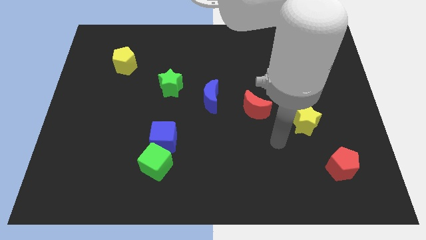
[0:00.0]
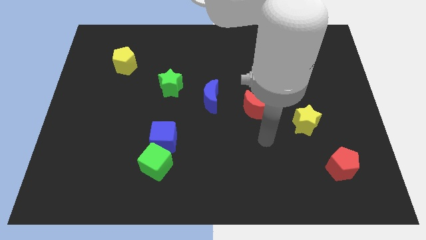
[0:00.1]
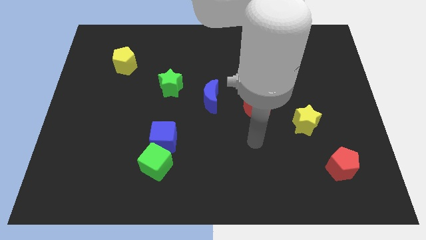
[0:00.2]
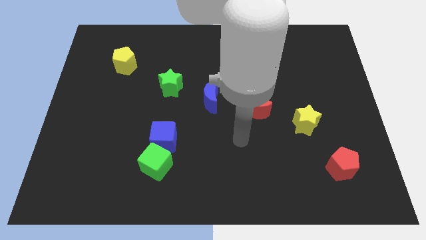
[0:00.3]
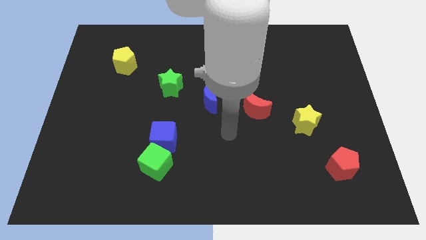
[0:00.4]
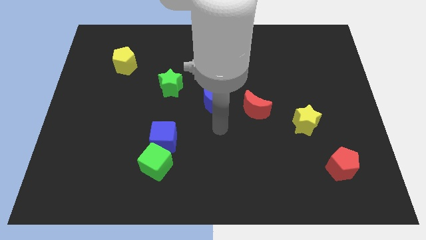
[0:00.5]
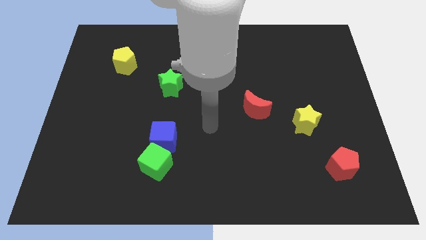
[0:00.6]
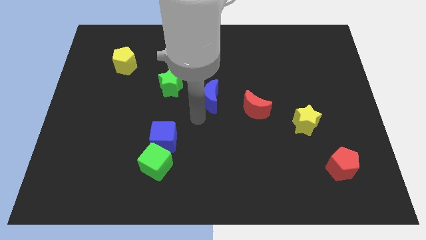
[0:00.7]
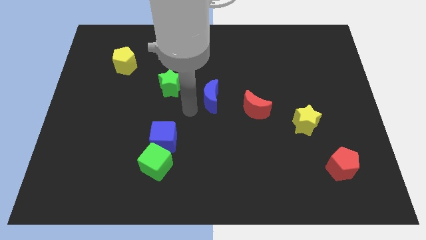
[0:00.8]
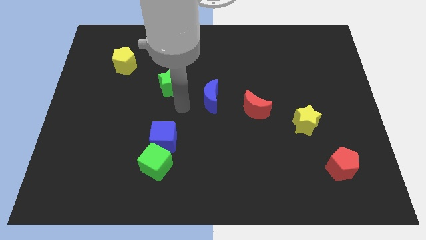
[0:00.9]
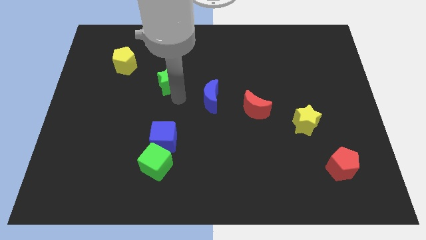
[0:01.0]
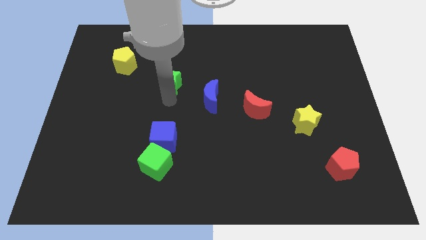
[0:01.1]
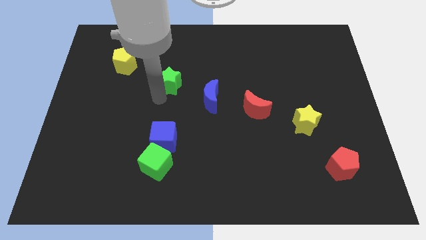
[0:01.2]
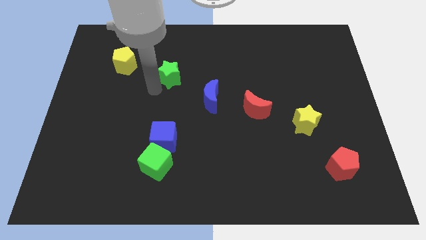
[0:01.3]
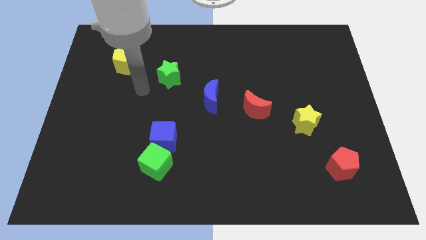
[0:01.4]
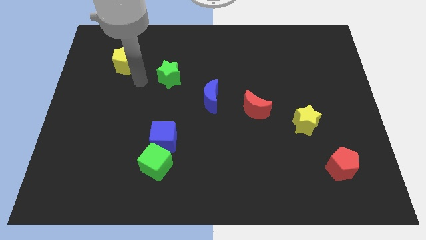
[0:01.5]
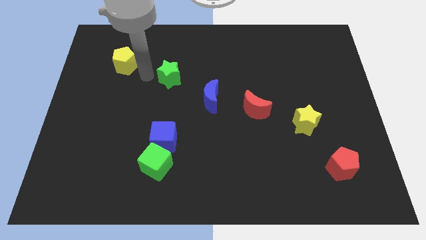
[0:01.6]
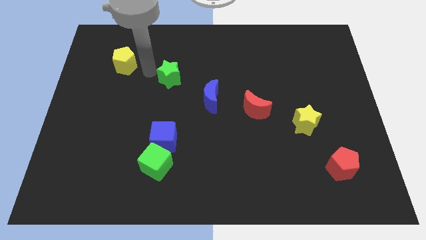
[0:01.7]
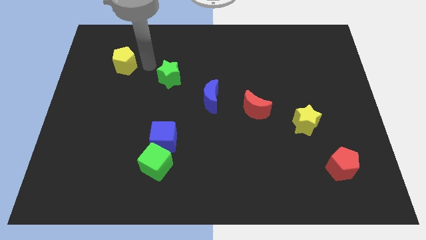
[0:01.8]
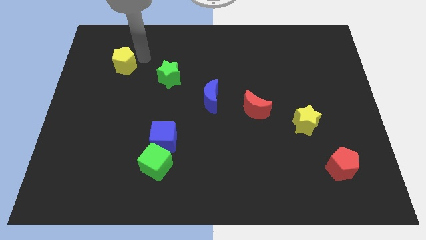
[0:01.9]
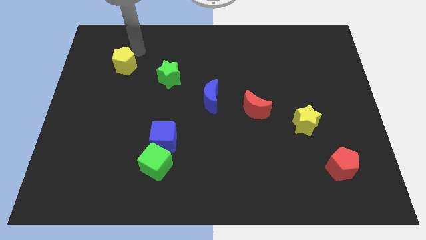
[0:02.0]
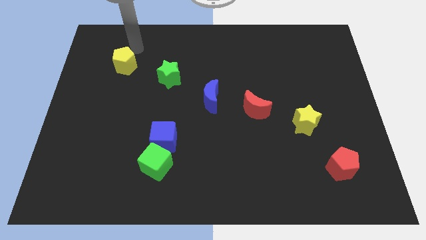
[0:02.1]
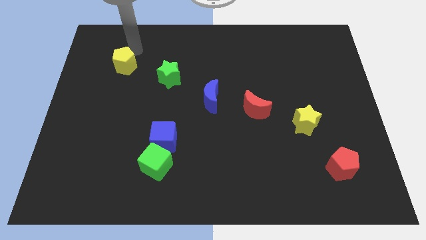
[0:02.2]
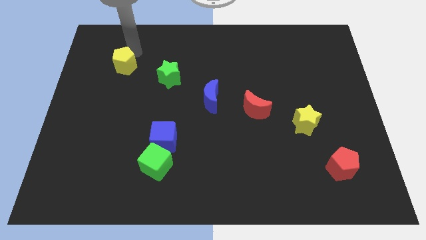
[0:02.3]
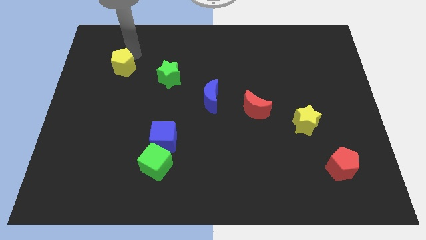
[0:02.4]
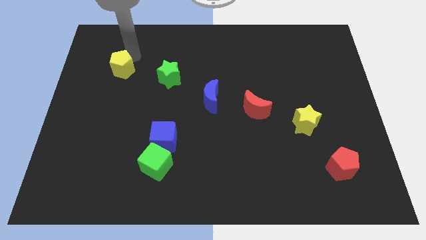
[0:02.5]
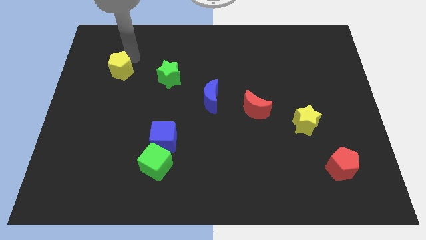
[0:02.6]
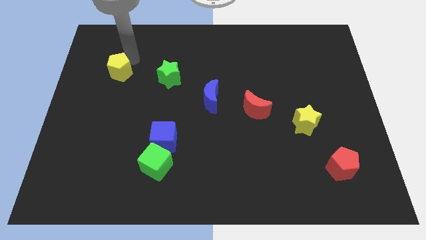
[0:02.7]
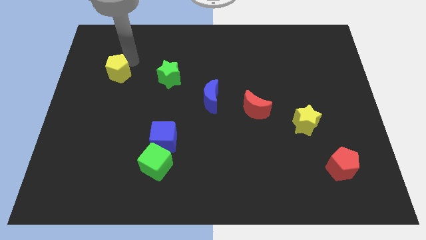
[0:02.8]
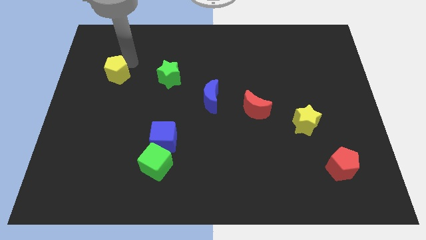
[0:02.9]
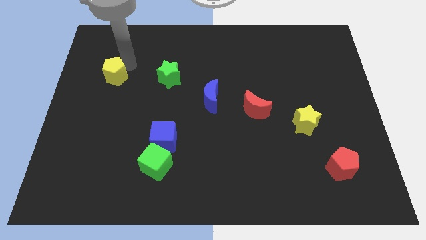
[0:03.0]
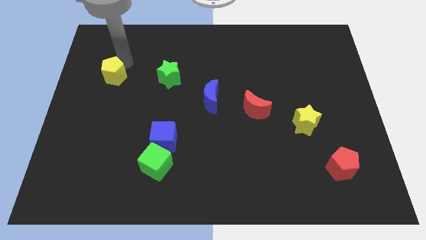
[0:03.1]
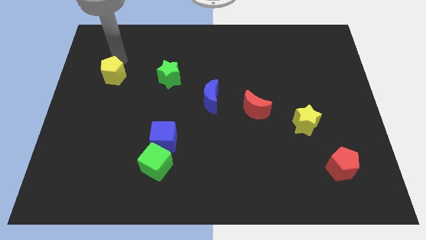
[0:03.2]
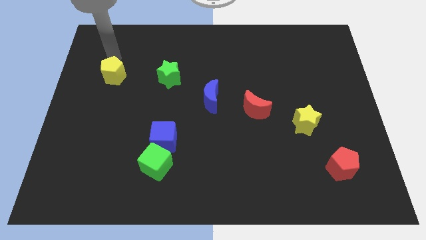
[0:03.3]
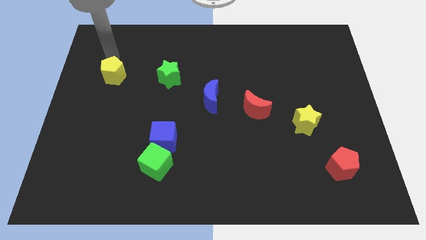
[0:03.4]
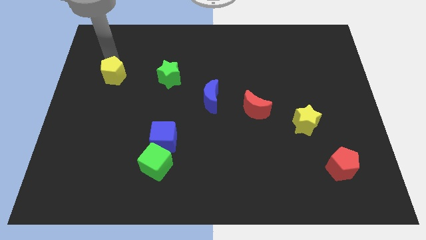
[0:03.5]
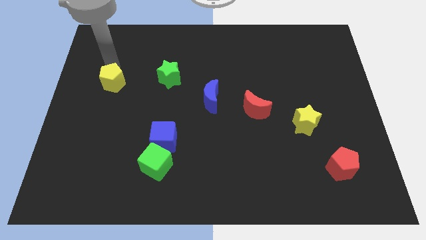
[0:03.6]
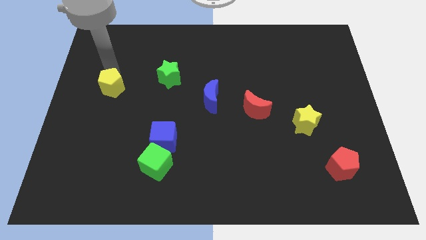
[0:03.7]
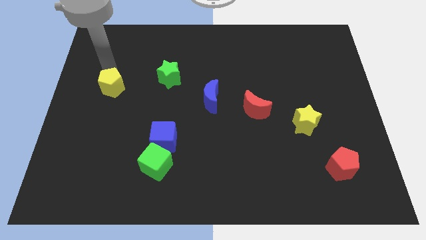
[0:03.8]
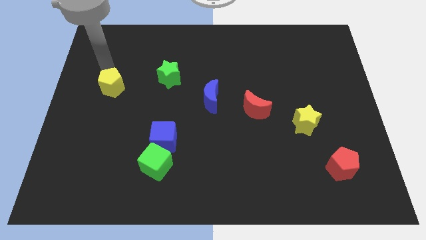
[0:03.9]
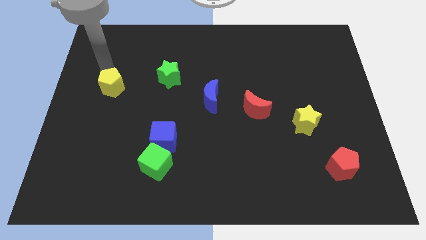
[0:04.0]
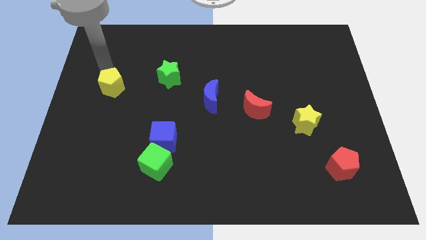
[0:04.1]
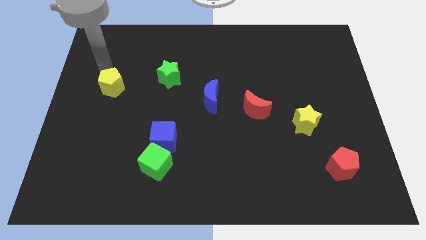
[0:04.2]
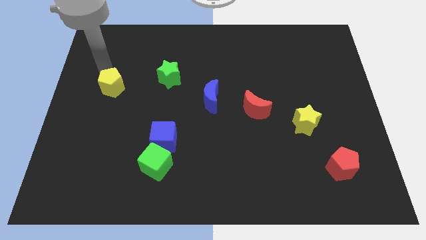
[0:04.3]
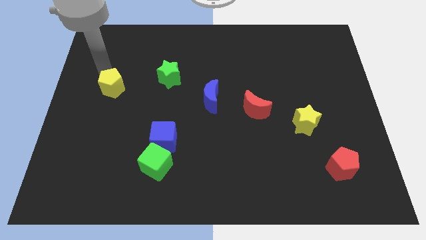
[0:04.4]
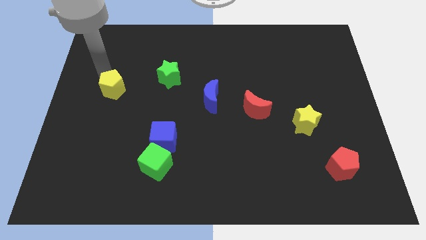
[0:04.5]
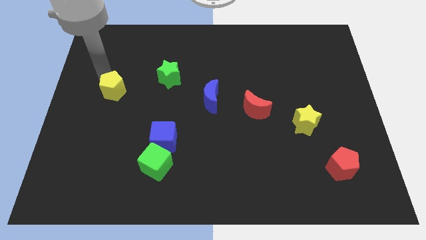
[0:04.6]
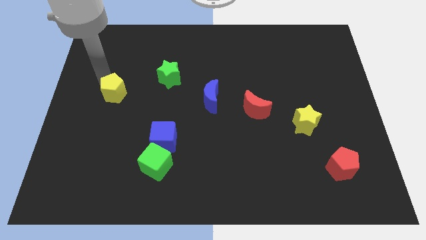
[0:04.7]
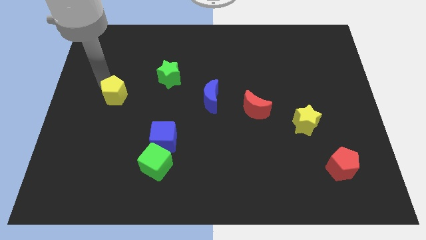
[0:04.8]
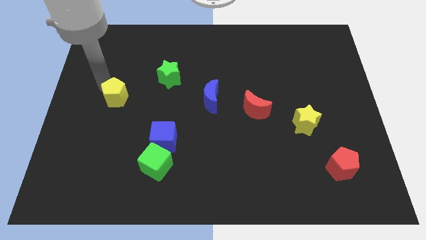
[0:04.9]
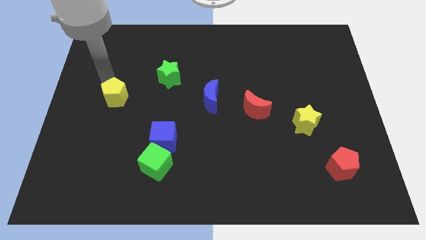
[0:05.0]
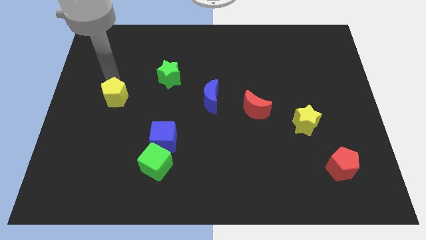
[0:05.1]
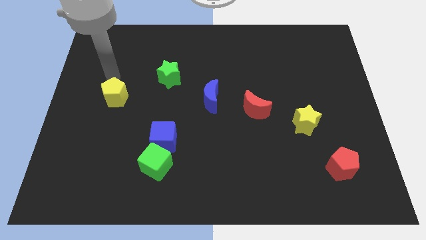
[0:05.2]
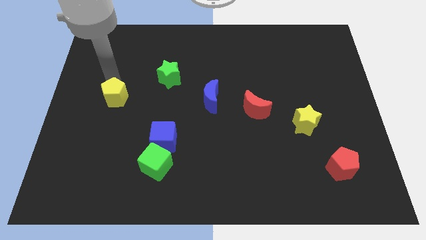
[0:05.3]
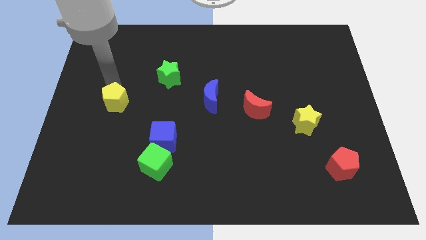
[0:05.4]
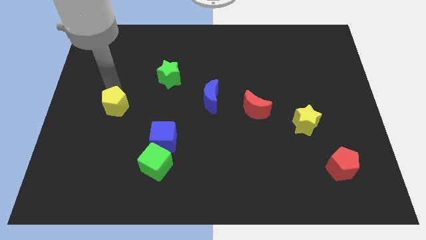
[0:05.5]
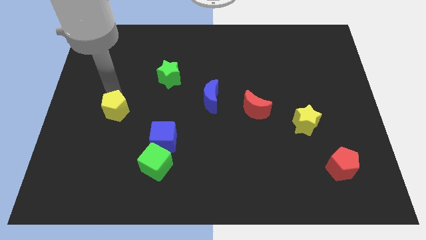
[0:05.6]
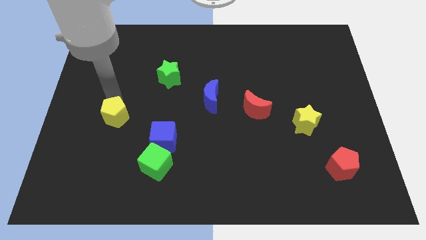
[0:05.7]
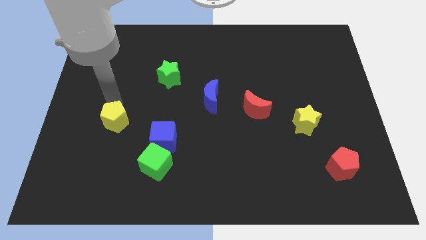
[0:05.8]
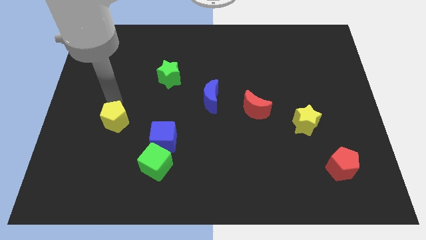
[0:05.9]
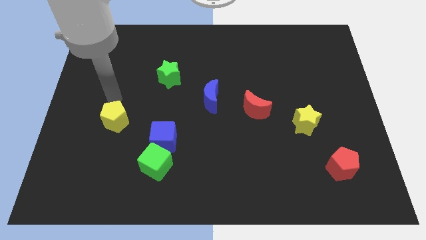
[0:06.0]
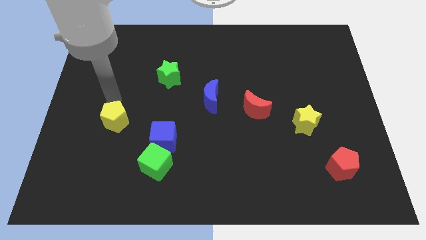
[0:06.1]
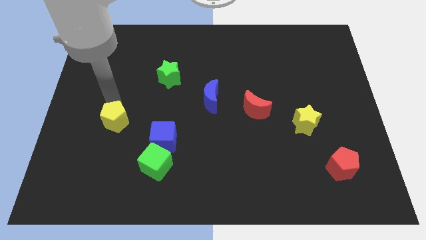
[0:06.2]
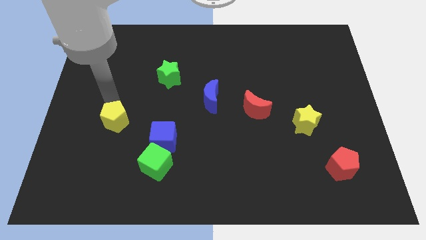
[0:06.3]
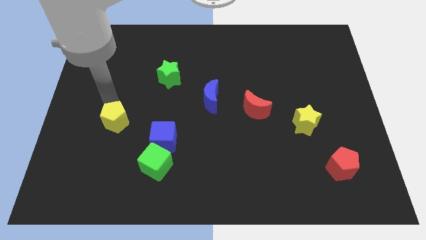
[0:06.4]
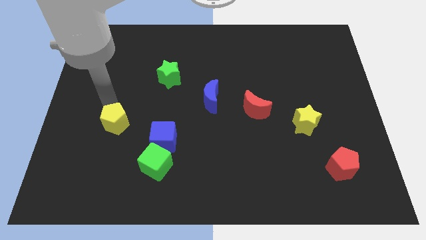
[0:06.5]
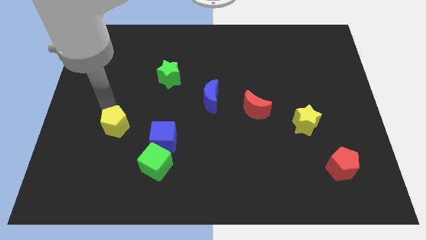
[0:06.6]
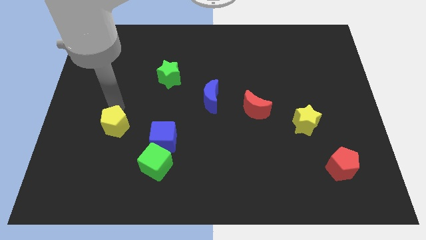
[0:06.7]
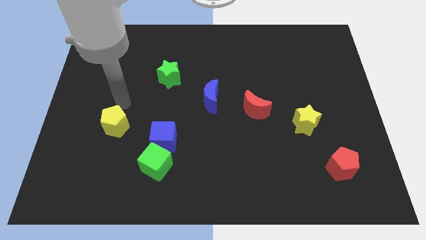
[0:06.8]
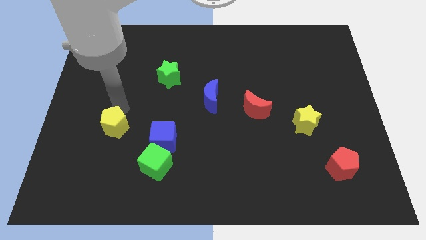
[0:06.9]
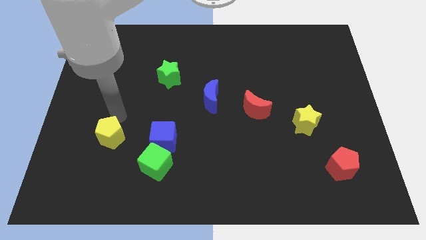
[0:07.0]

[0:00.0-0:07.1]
push the yellow pentagon down

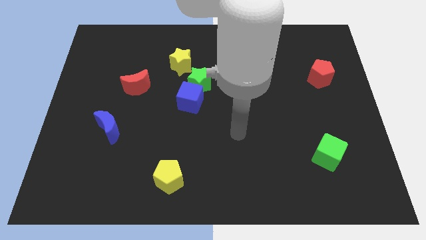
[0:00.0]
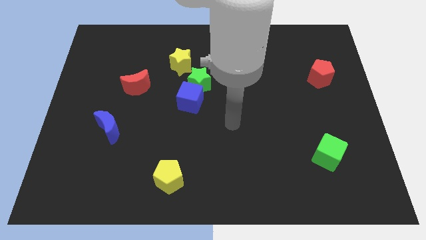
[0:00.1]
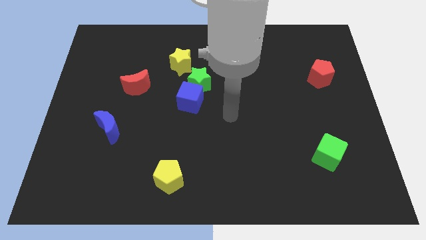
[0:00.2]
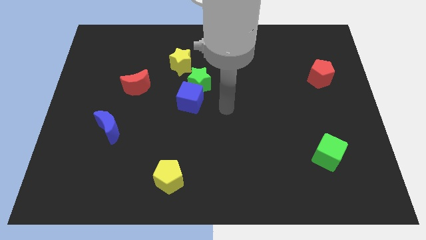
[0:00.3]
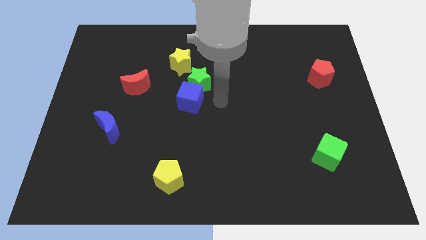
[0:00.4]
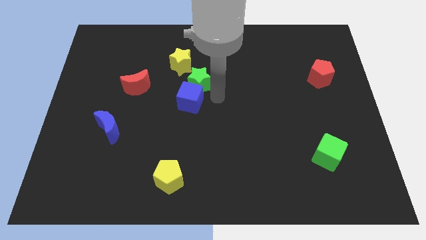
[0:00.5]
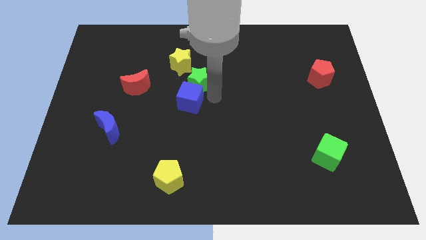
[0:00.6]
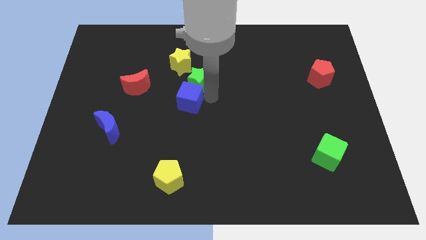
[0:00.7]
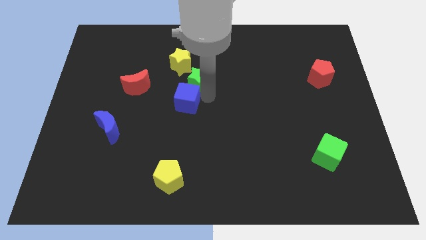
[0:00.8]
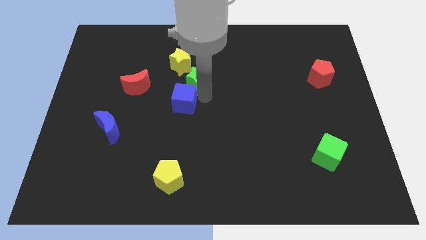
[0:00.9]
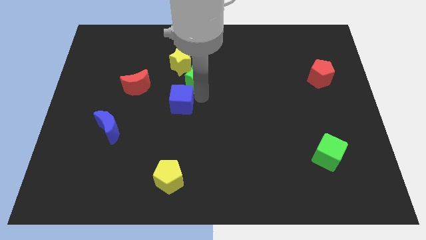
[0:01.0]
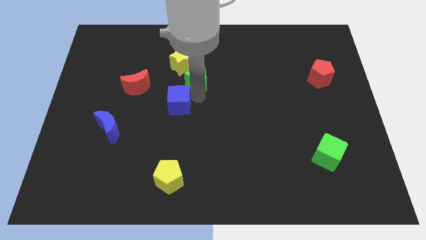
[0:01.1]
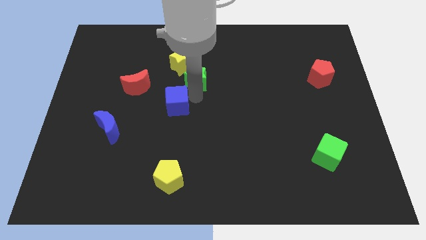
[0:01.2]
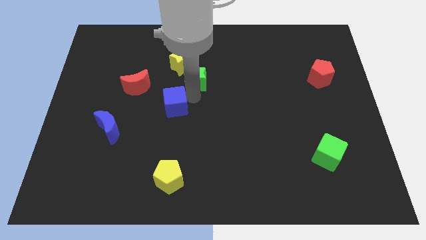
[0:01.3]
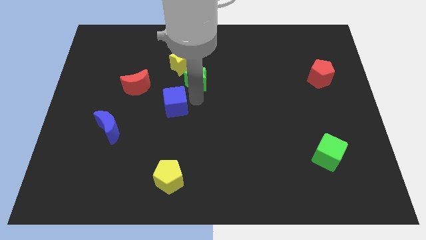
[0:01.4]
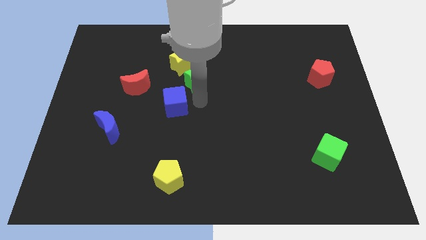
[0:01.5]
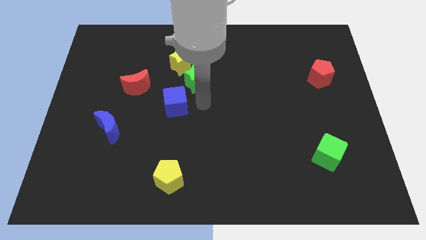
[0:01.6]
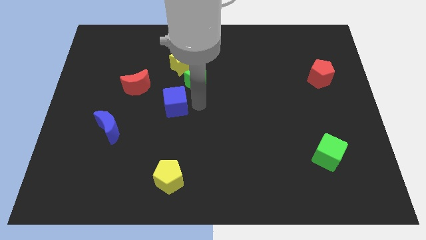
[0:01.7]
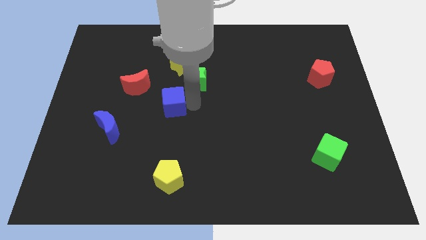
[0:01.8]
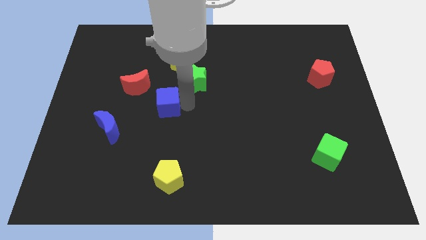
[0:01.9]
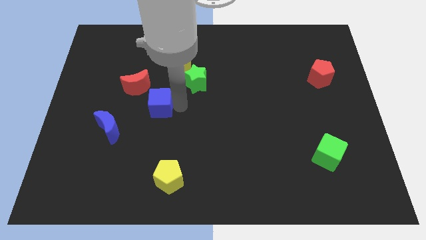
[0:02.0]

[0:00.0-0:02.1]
slightly slide the blue cube left
